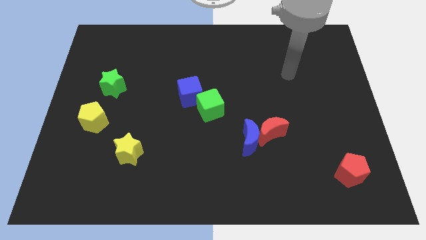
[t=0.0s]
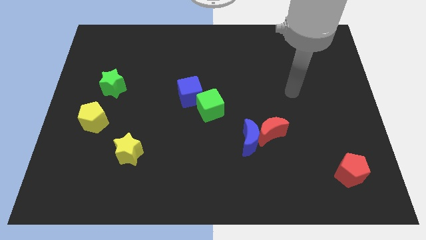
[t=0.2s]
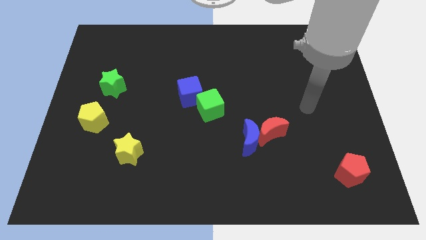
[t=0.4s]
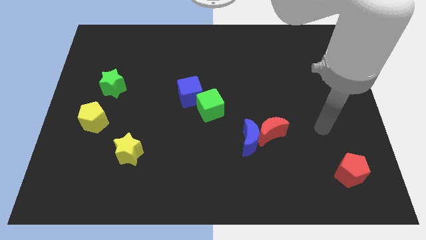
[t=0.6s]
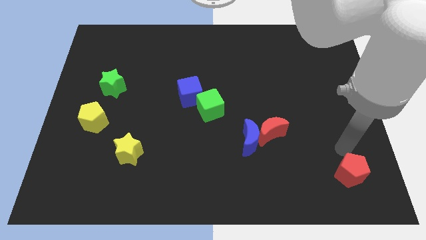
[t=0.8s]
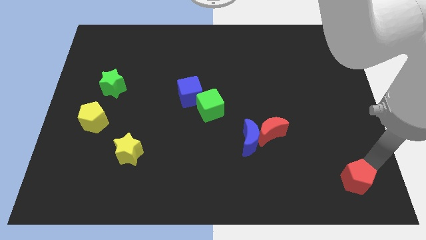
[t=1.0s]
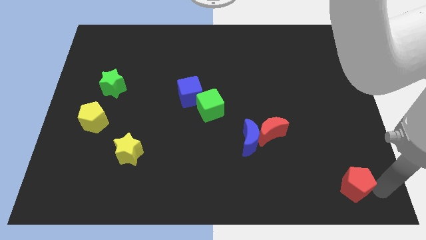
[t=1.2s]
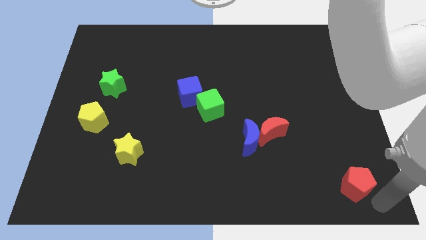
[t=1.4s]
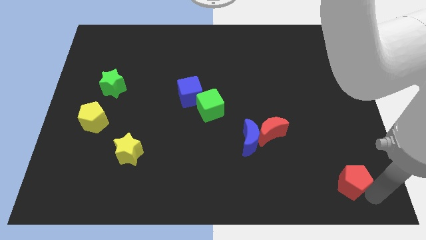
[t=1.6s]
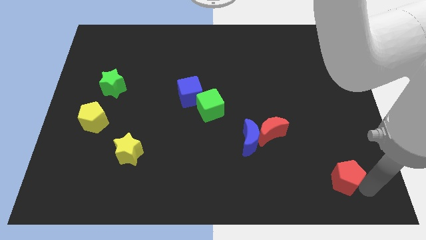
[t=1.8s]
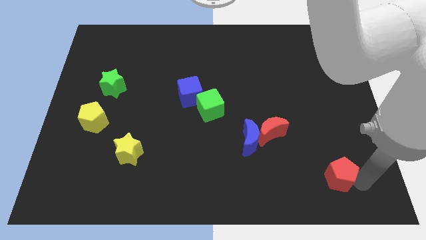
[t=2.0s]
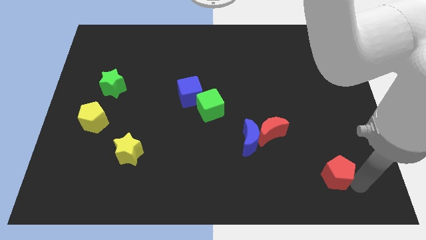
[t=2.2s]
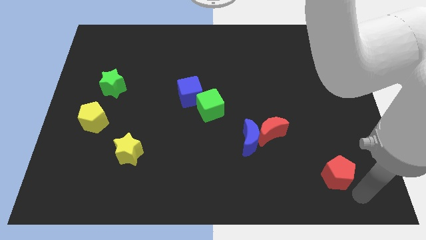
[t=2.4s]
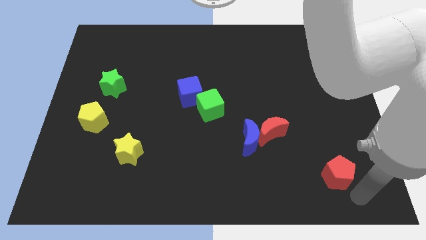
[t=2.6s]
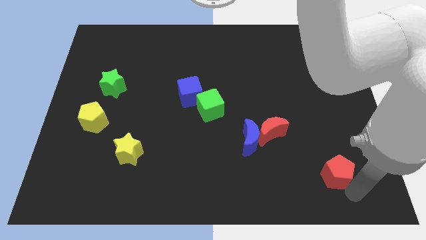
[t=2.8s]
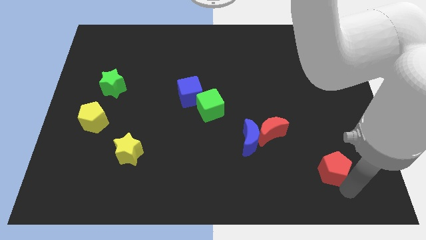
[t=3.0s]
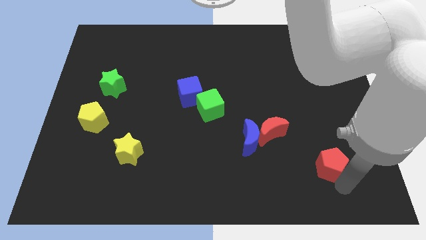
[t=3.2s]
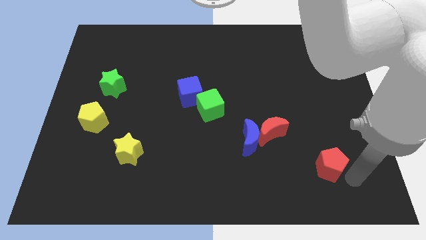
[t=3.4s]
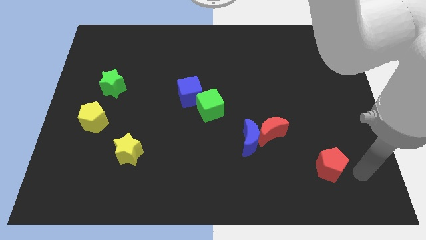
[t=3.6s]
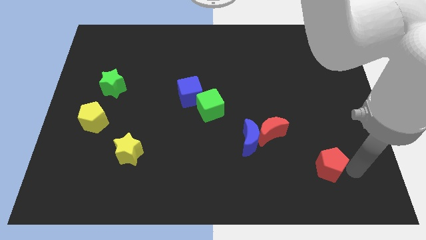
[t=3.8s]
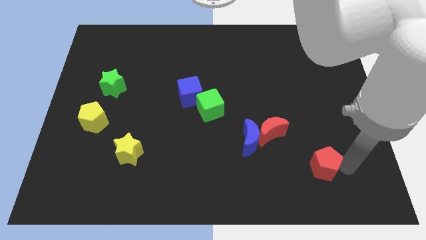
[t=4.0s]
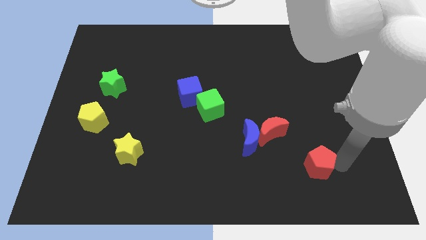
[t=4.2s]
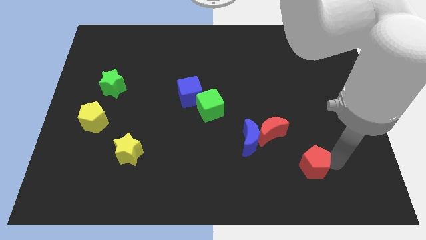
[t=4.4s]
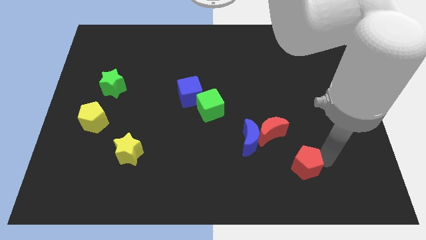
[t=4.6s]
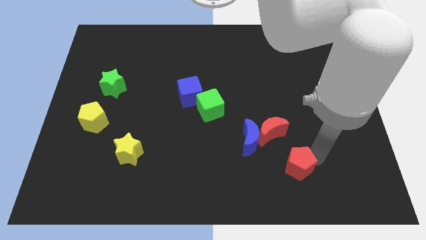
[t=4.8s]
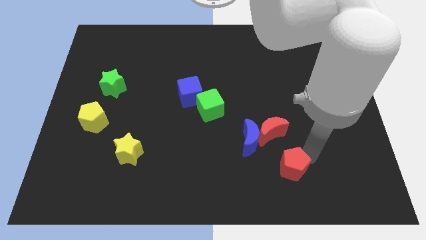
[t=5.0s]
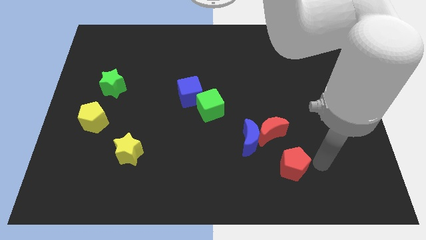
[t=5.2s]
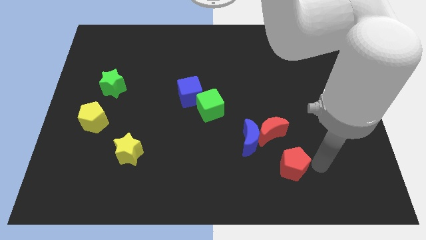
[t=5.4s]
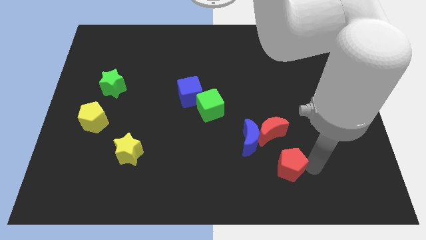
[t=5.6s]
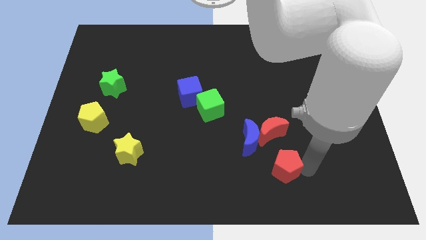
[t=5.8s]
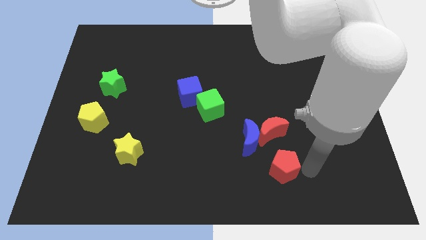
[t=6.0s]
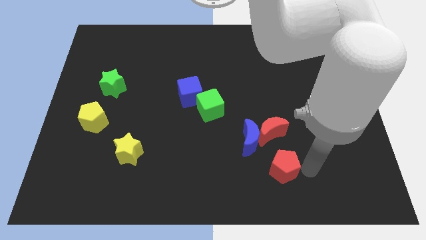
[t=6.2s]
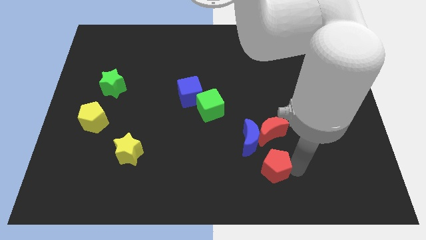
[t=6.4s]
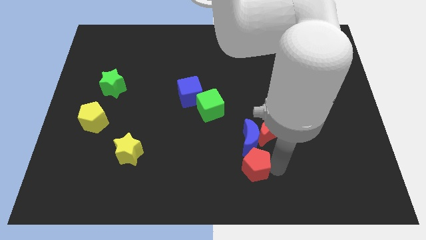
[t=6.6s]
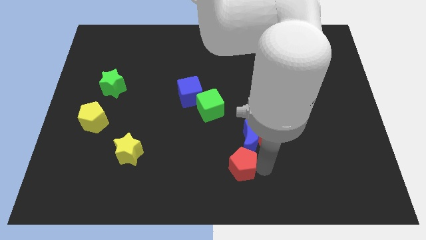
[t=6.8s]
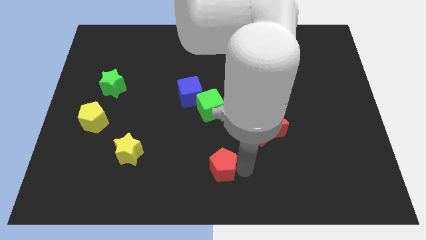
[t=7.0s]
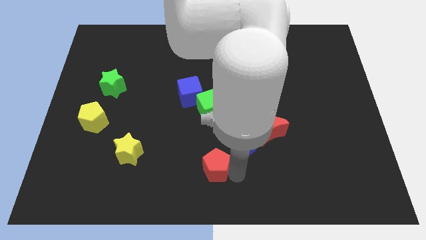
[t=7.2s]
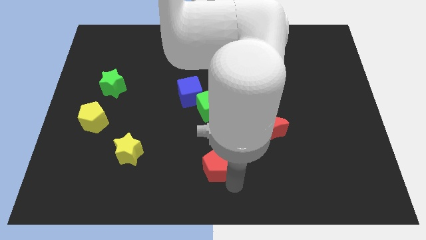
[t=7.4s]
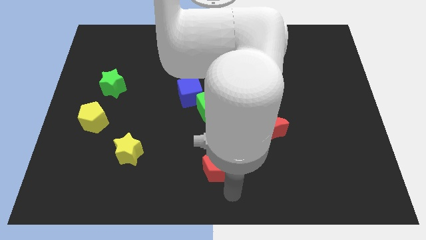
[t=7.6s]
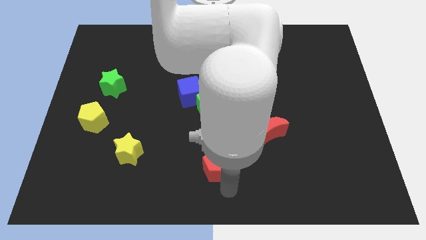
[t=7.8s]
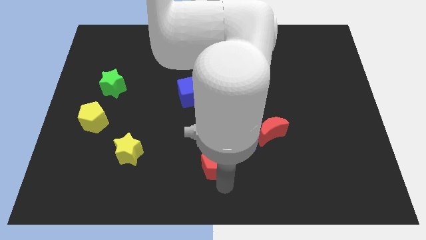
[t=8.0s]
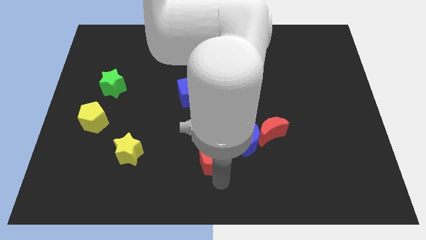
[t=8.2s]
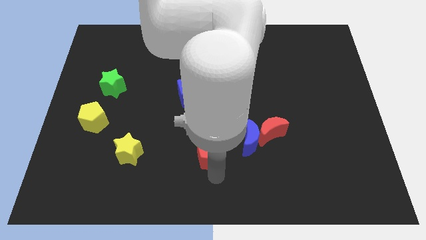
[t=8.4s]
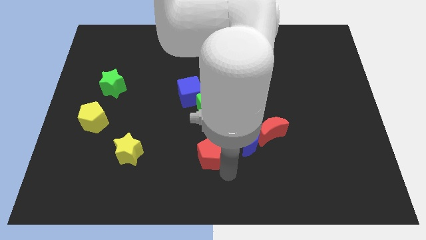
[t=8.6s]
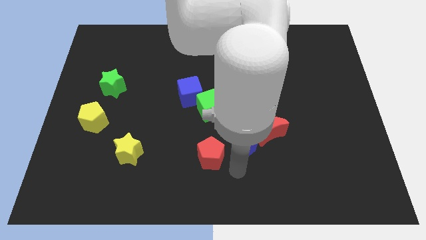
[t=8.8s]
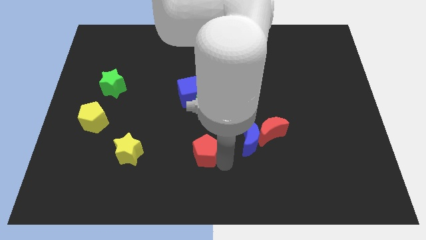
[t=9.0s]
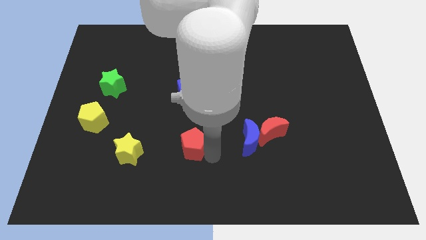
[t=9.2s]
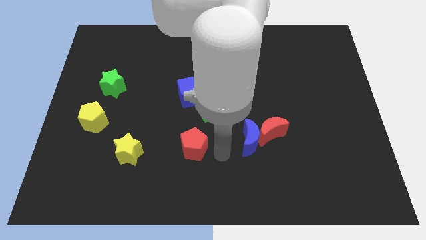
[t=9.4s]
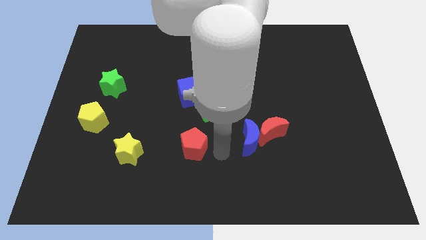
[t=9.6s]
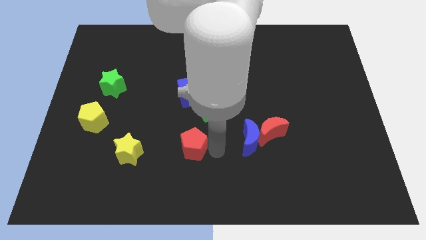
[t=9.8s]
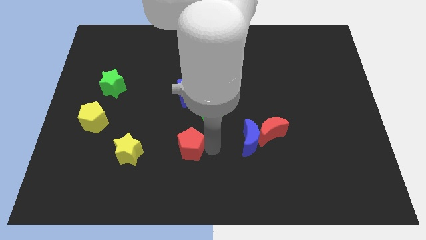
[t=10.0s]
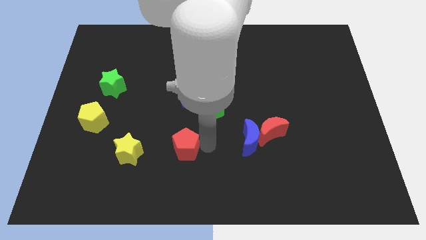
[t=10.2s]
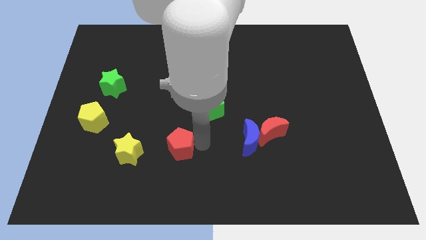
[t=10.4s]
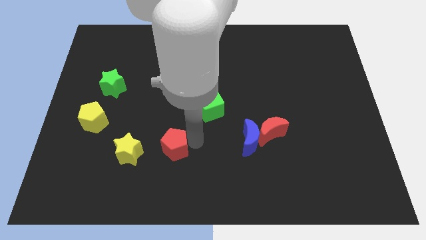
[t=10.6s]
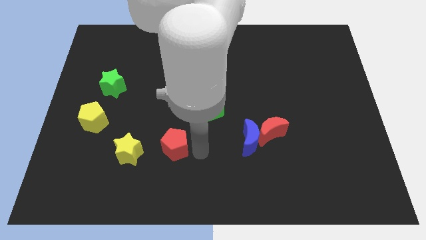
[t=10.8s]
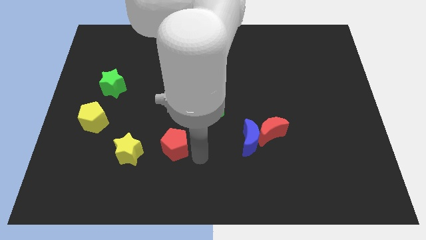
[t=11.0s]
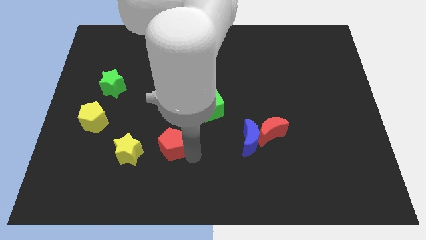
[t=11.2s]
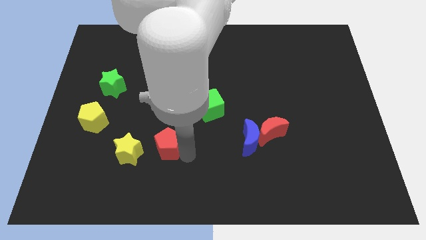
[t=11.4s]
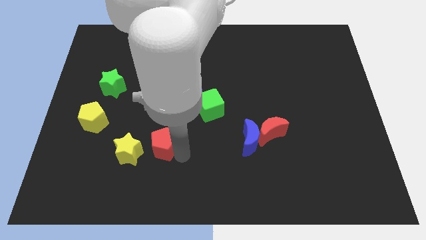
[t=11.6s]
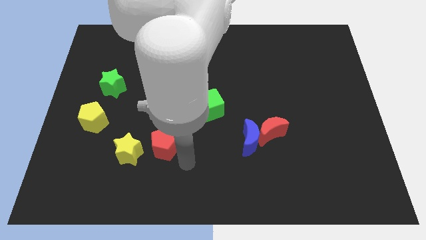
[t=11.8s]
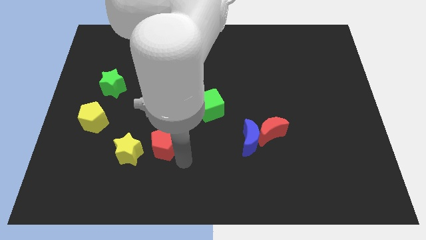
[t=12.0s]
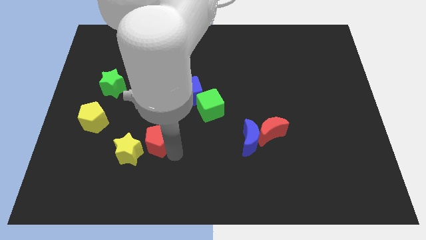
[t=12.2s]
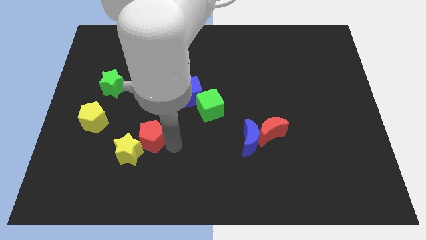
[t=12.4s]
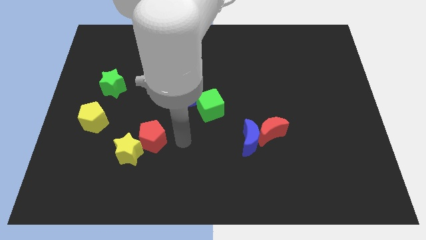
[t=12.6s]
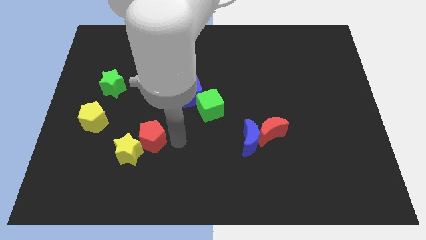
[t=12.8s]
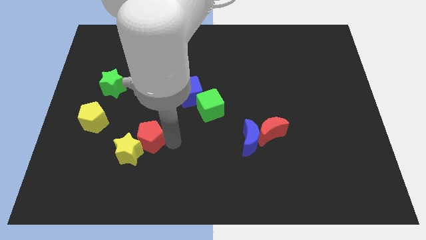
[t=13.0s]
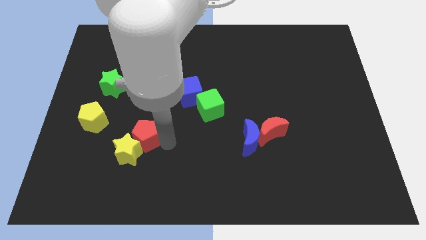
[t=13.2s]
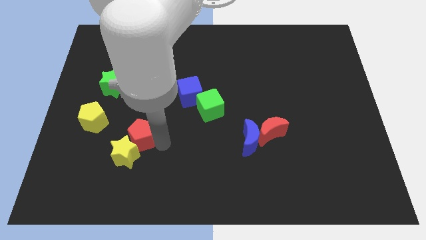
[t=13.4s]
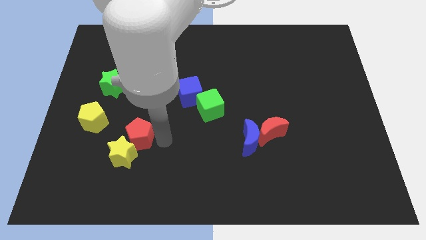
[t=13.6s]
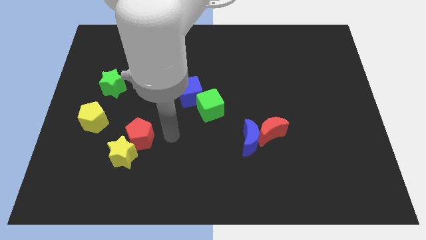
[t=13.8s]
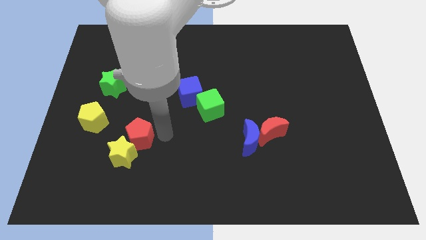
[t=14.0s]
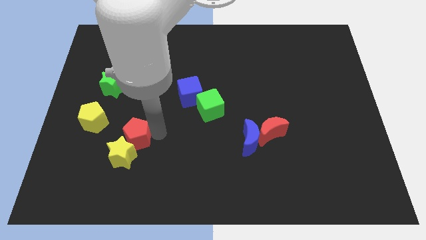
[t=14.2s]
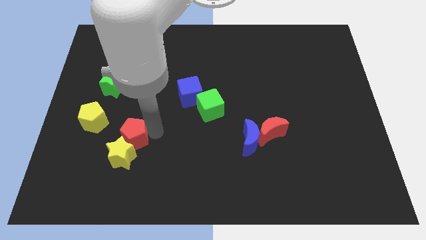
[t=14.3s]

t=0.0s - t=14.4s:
move the red pentagon diagonally down and to the right of the yellow pentagon
